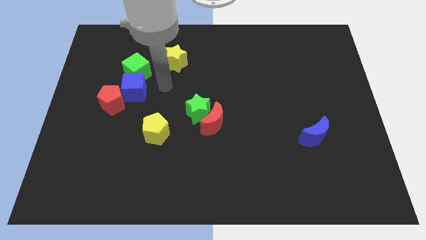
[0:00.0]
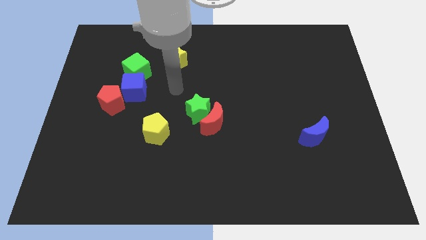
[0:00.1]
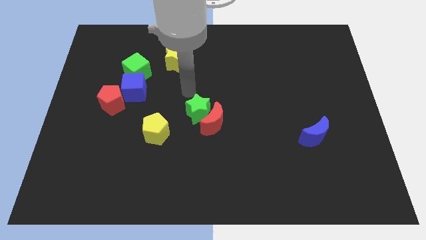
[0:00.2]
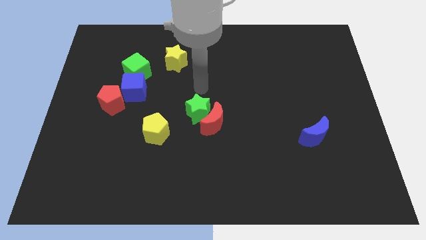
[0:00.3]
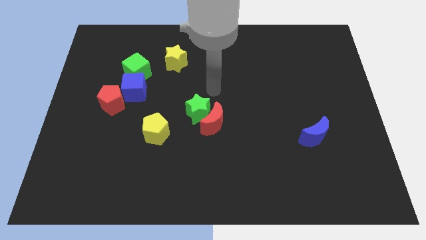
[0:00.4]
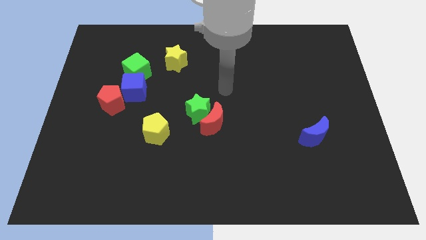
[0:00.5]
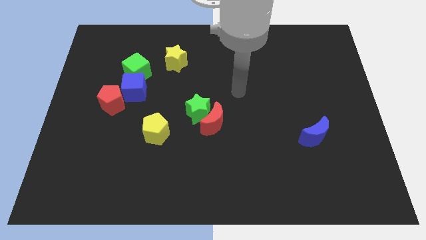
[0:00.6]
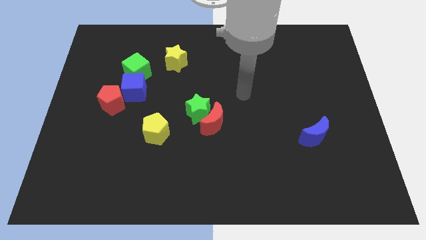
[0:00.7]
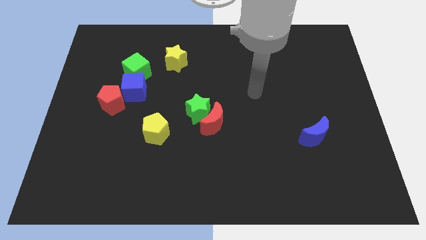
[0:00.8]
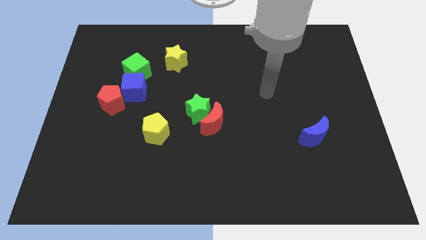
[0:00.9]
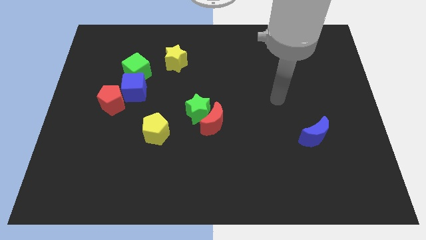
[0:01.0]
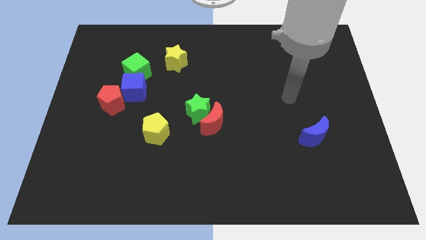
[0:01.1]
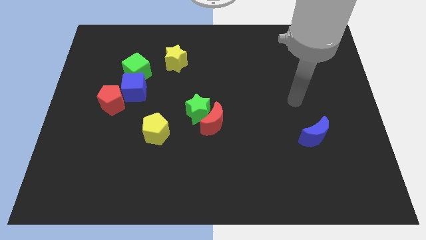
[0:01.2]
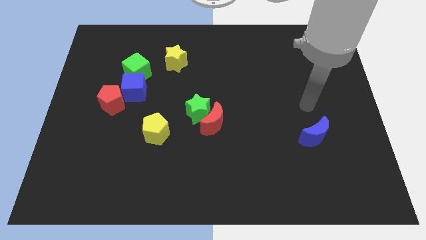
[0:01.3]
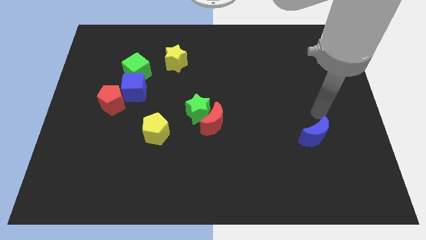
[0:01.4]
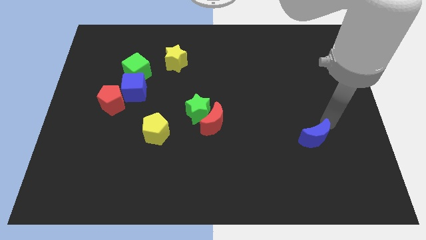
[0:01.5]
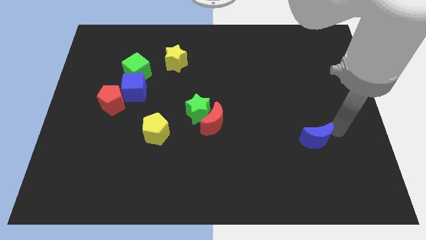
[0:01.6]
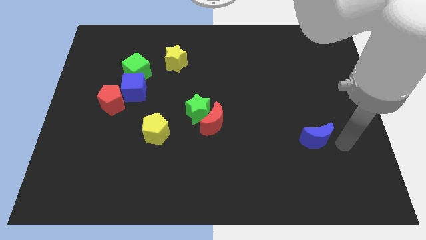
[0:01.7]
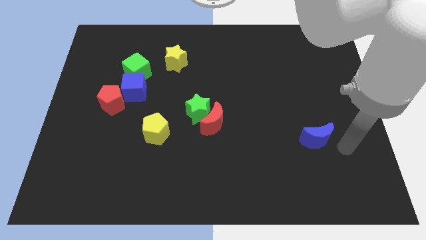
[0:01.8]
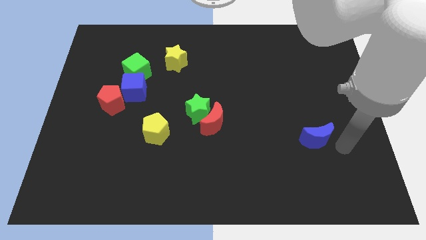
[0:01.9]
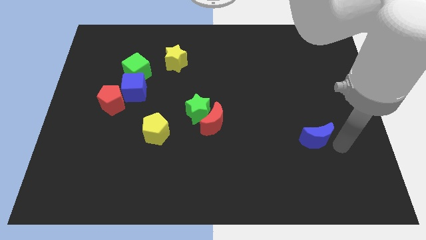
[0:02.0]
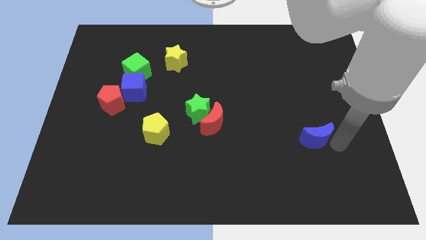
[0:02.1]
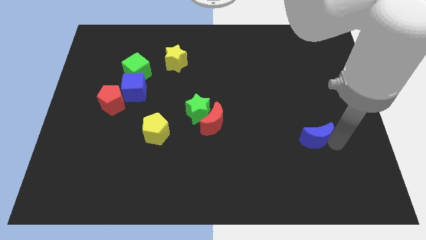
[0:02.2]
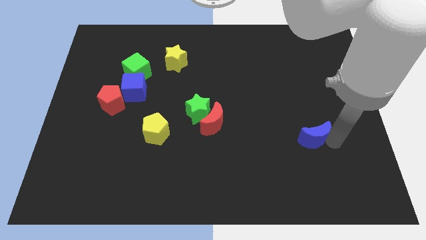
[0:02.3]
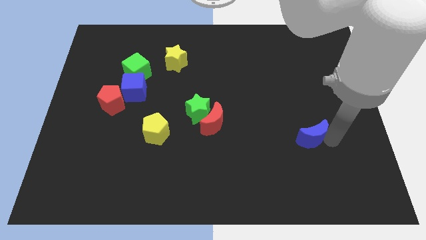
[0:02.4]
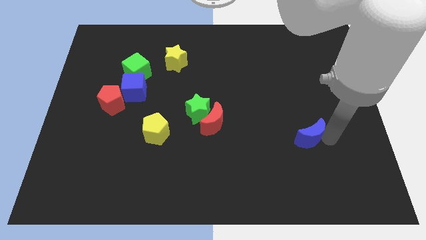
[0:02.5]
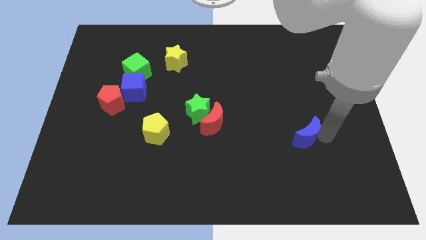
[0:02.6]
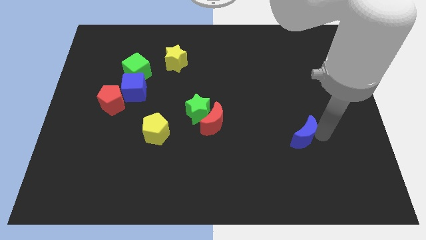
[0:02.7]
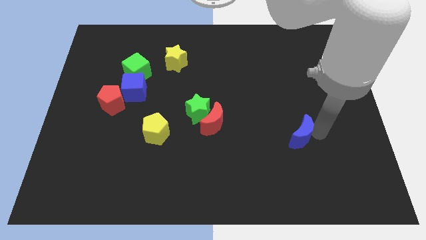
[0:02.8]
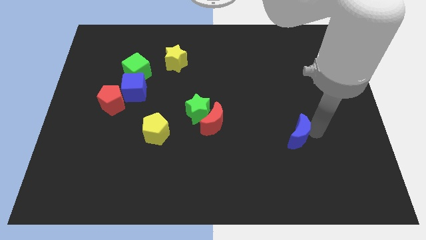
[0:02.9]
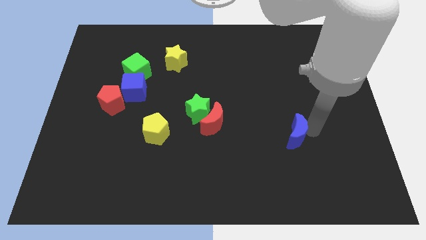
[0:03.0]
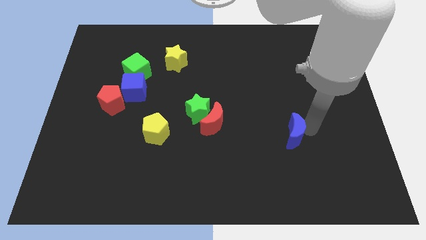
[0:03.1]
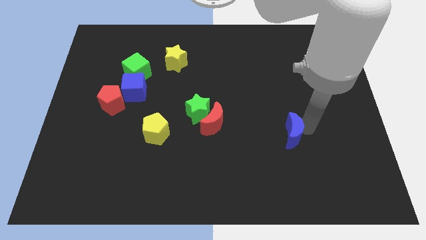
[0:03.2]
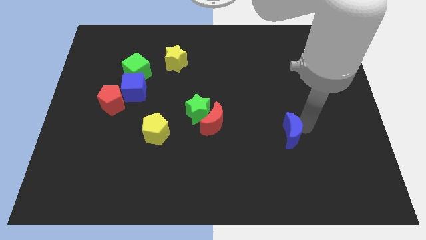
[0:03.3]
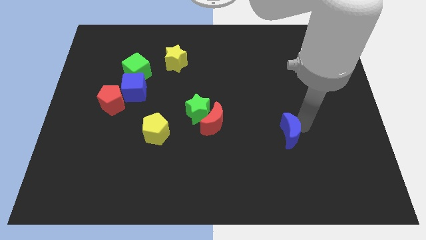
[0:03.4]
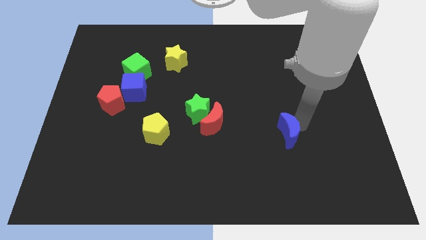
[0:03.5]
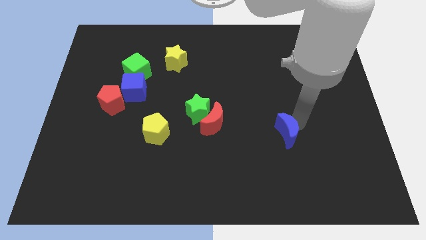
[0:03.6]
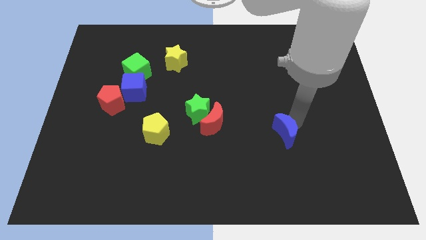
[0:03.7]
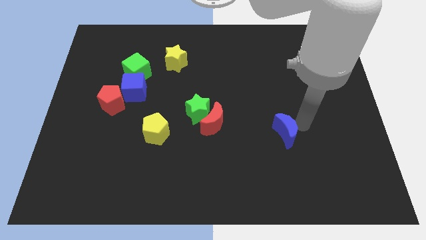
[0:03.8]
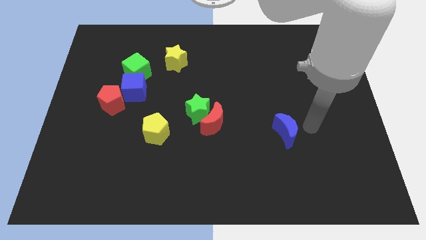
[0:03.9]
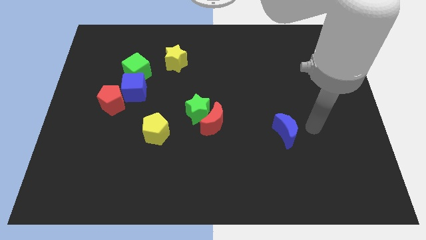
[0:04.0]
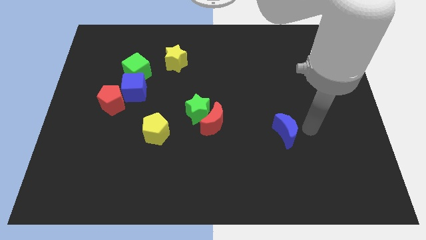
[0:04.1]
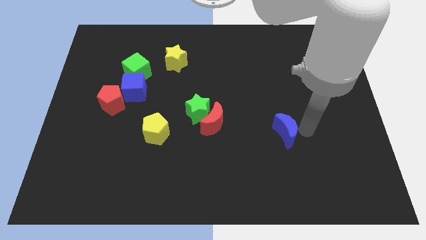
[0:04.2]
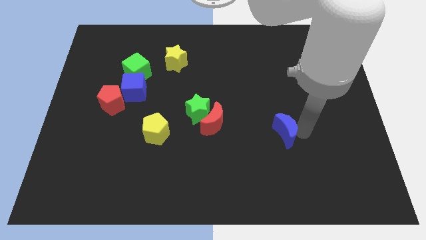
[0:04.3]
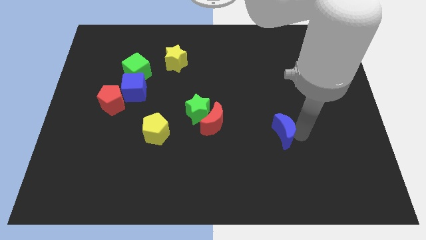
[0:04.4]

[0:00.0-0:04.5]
slightly push the blue moon to the left

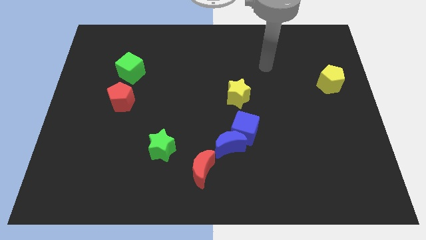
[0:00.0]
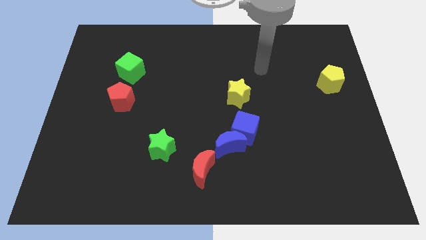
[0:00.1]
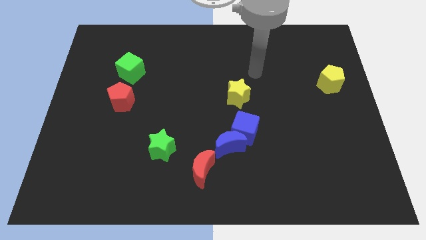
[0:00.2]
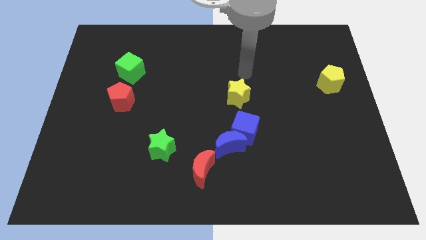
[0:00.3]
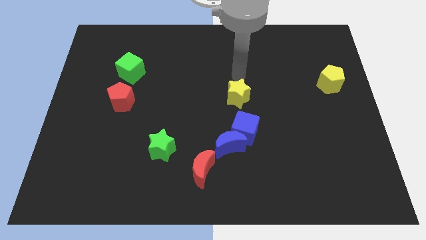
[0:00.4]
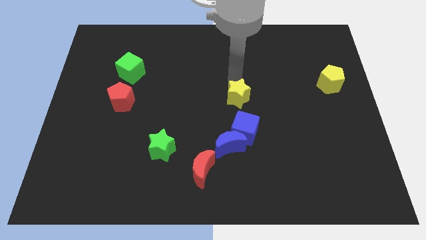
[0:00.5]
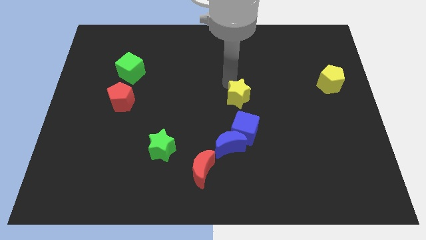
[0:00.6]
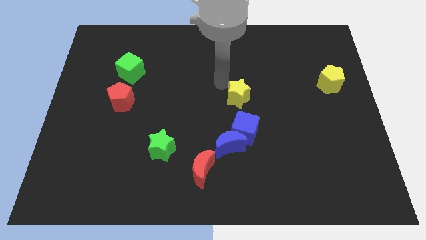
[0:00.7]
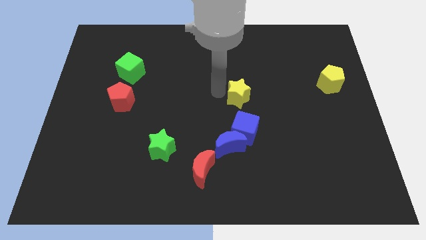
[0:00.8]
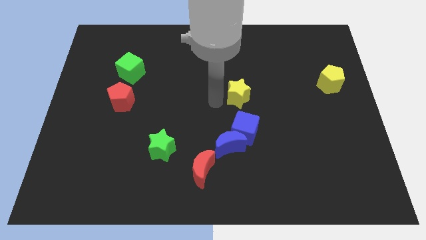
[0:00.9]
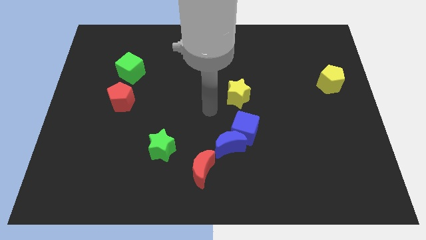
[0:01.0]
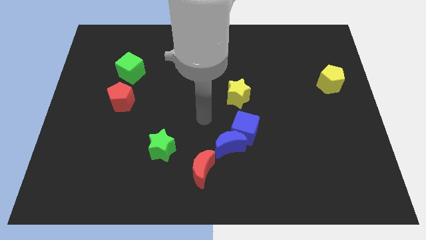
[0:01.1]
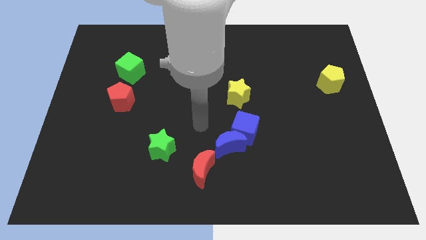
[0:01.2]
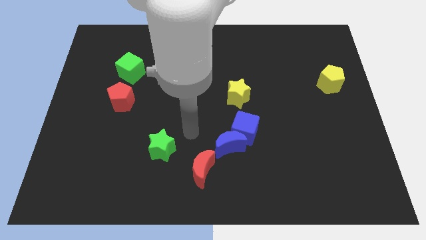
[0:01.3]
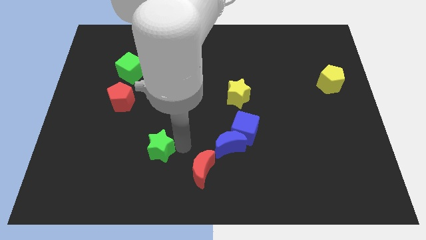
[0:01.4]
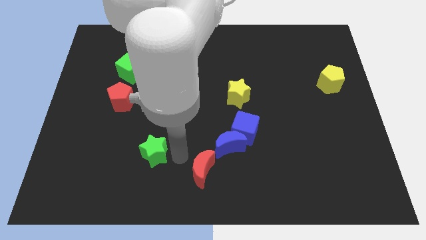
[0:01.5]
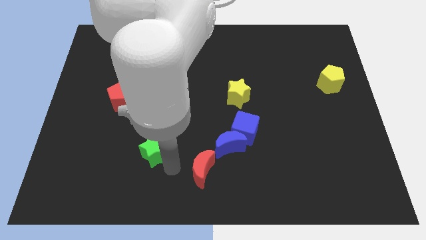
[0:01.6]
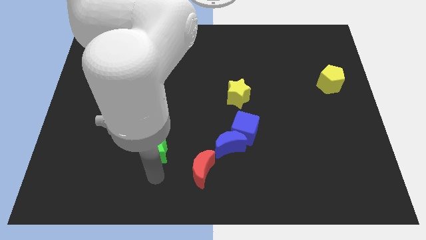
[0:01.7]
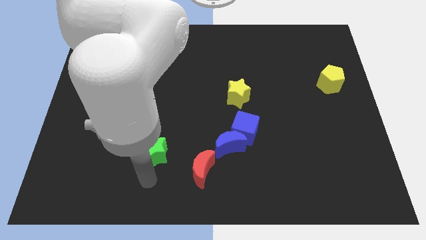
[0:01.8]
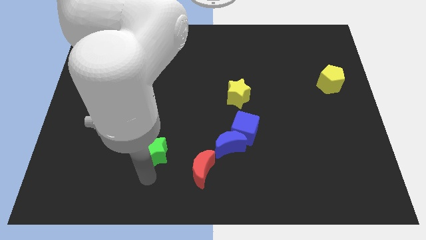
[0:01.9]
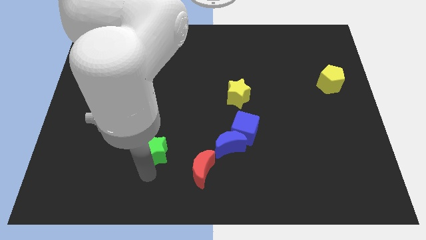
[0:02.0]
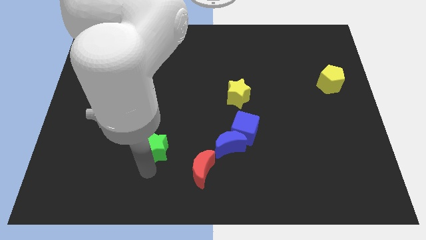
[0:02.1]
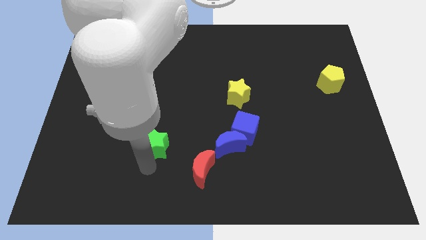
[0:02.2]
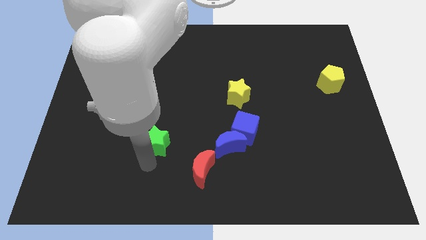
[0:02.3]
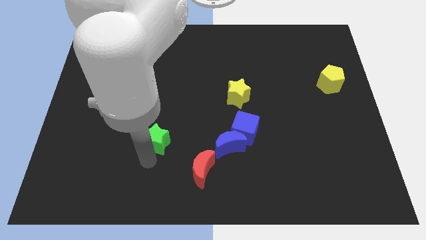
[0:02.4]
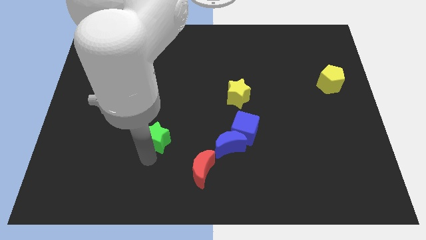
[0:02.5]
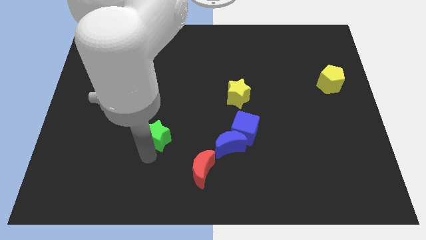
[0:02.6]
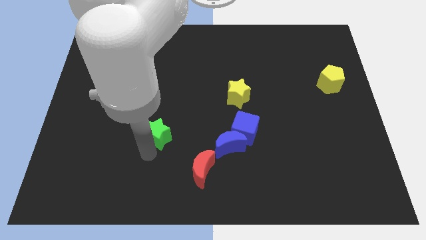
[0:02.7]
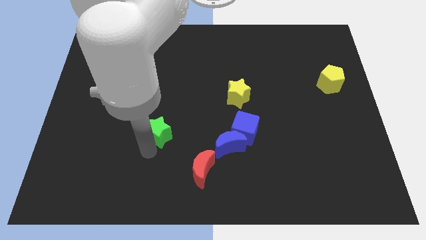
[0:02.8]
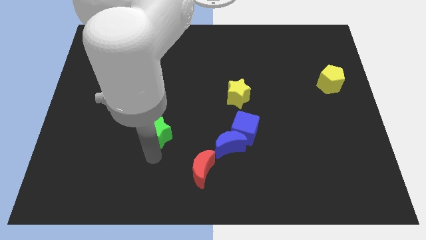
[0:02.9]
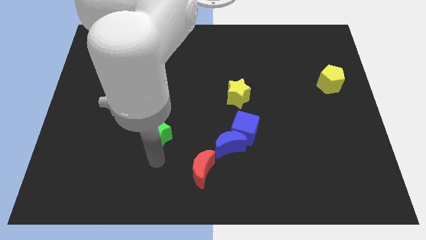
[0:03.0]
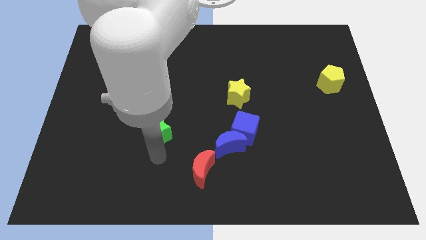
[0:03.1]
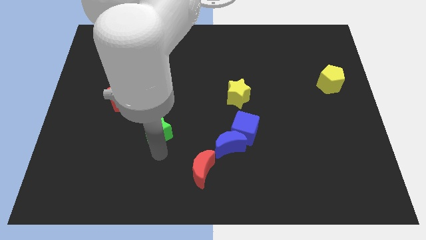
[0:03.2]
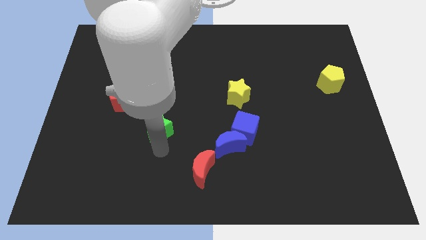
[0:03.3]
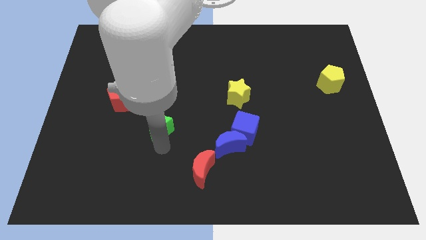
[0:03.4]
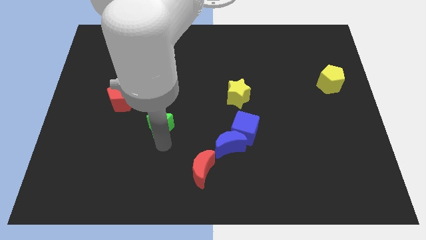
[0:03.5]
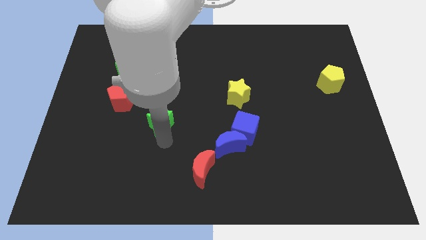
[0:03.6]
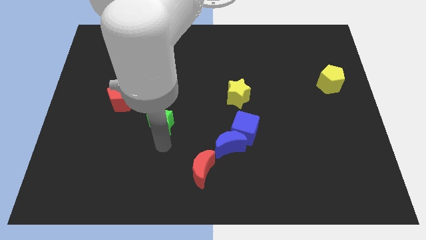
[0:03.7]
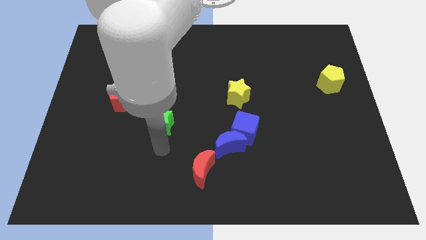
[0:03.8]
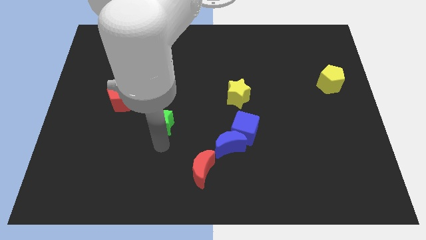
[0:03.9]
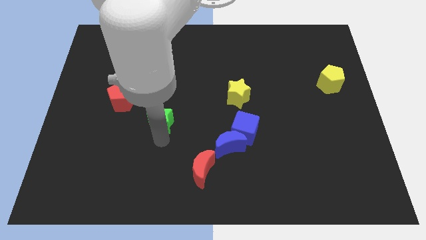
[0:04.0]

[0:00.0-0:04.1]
slightly slide the green star upwards
